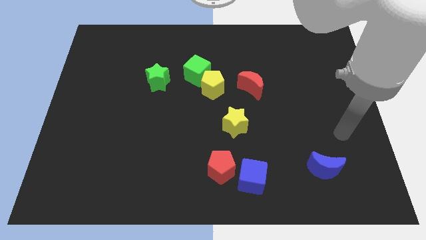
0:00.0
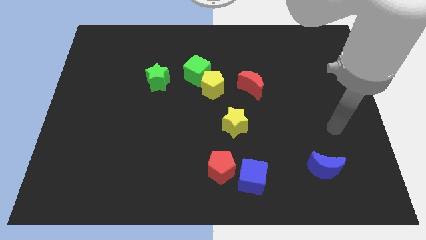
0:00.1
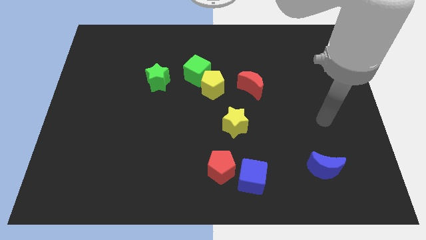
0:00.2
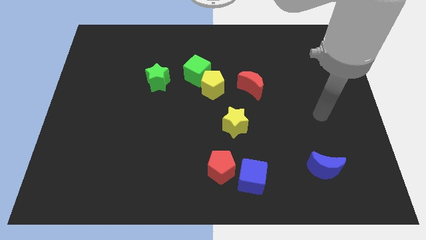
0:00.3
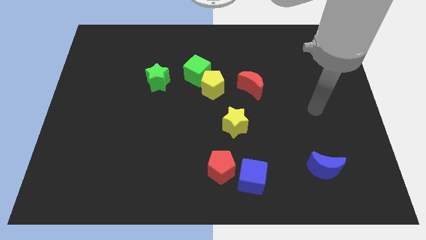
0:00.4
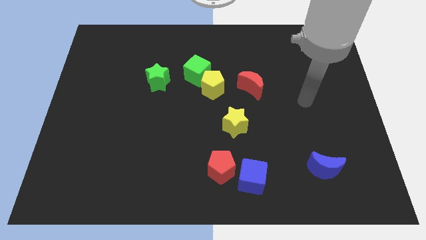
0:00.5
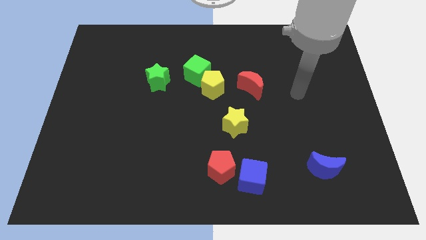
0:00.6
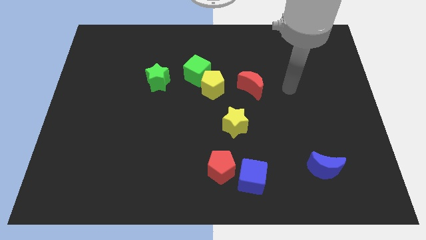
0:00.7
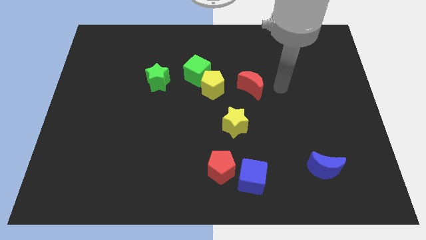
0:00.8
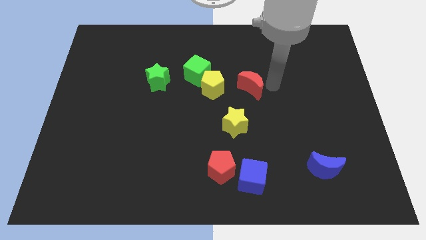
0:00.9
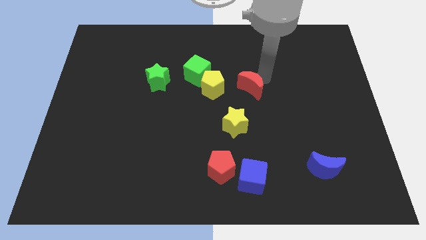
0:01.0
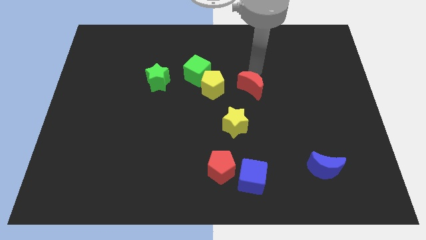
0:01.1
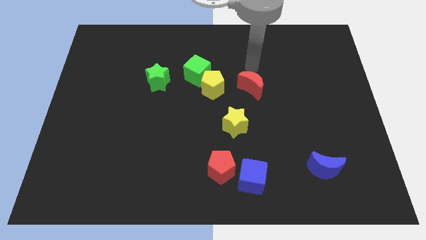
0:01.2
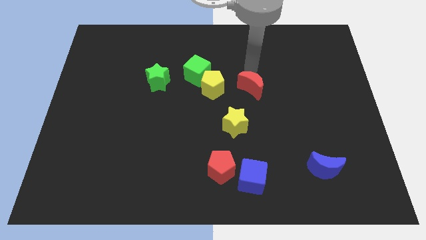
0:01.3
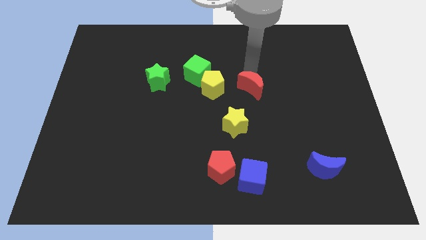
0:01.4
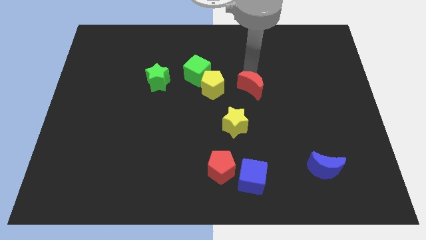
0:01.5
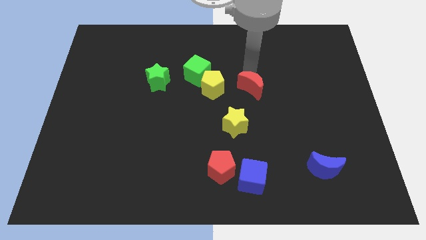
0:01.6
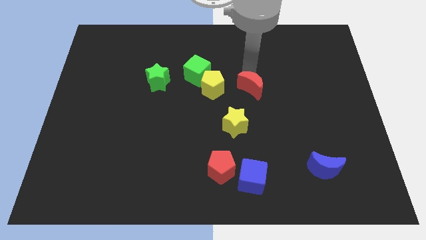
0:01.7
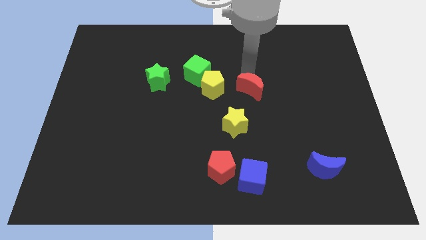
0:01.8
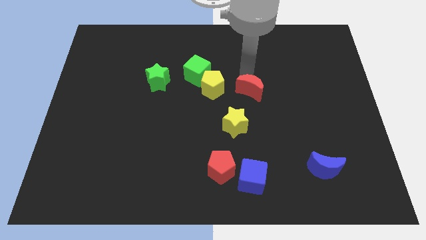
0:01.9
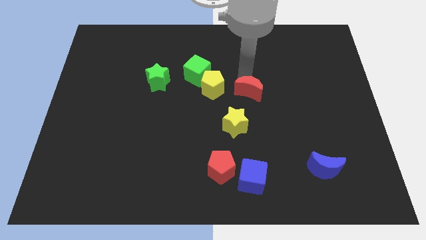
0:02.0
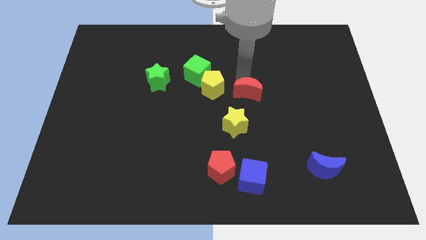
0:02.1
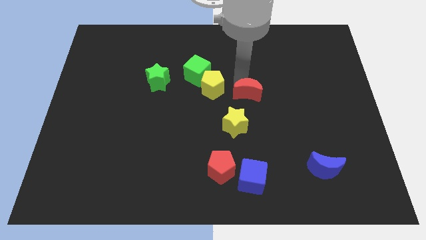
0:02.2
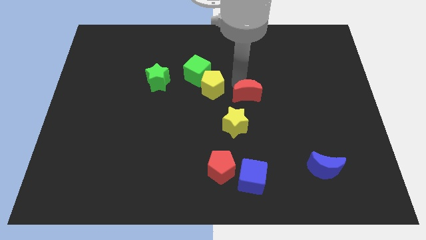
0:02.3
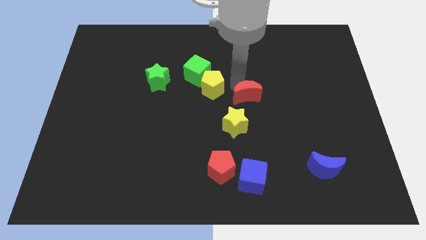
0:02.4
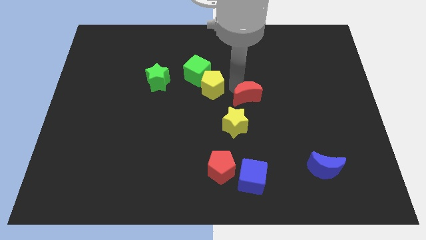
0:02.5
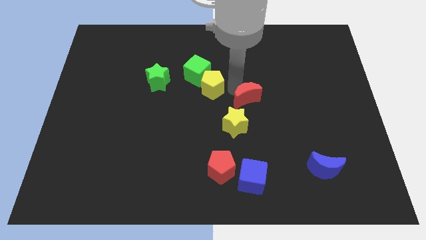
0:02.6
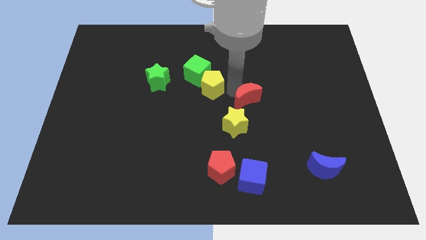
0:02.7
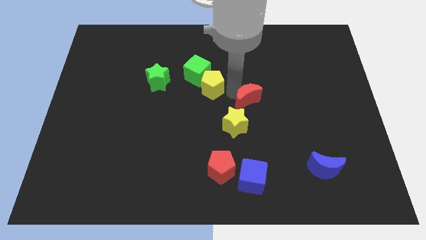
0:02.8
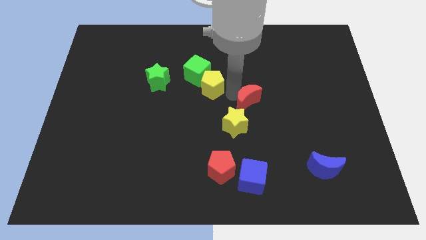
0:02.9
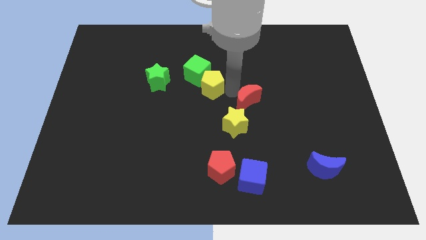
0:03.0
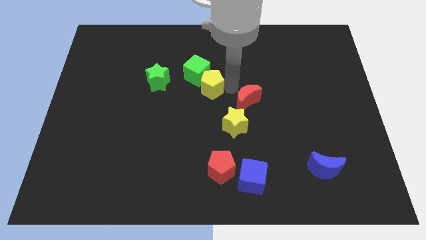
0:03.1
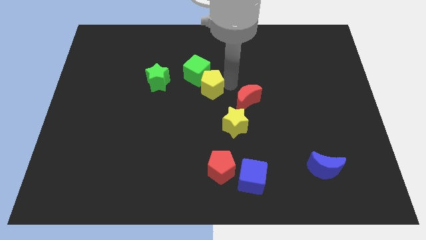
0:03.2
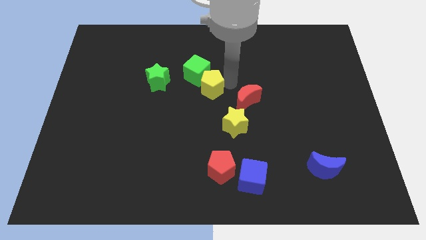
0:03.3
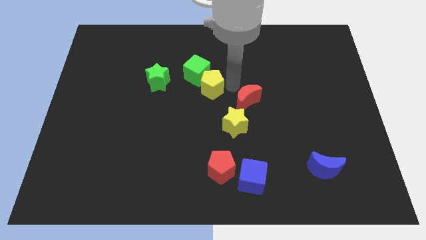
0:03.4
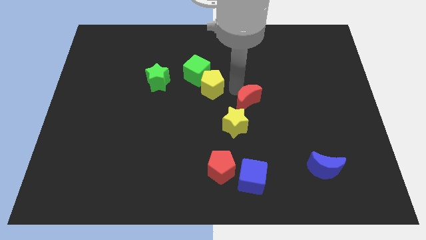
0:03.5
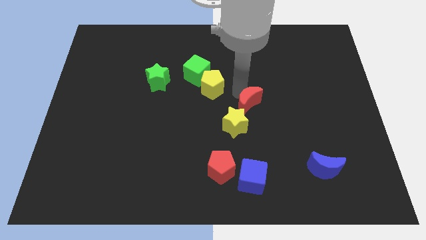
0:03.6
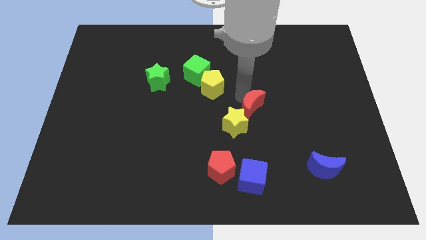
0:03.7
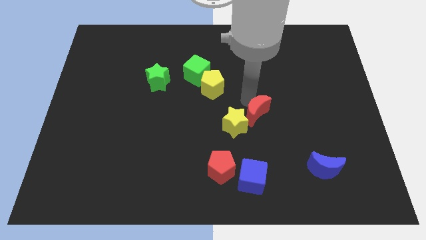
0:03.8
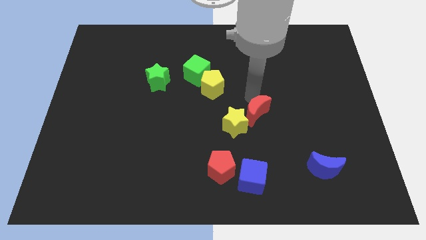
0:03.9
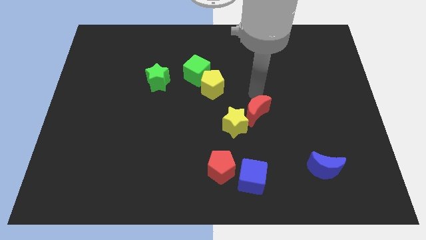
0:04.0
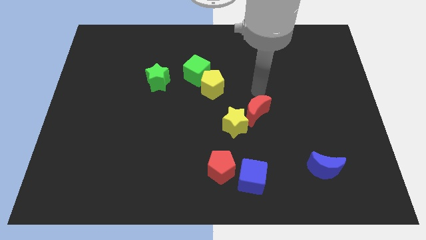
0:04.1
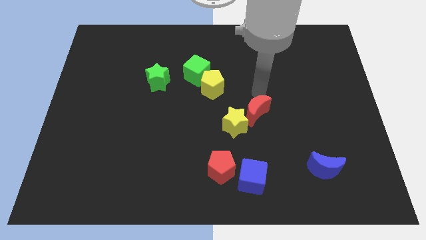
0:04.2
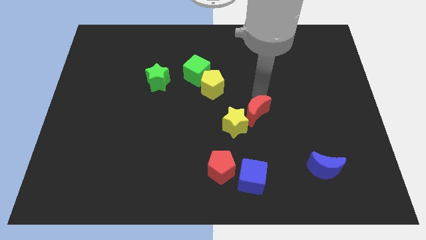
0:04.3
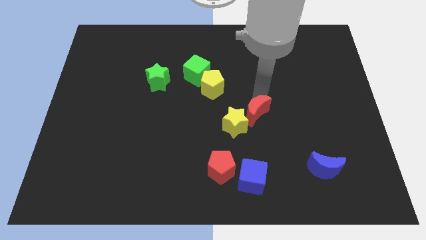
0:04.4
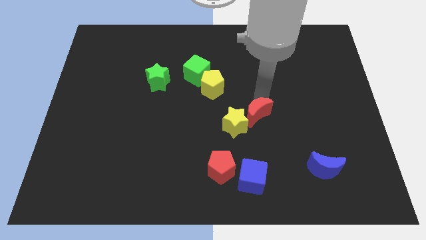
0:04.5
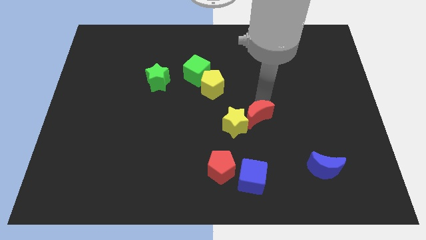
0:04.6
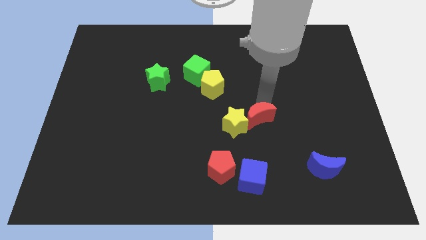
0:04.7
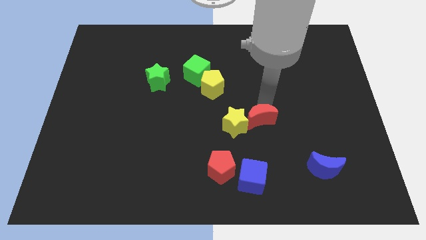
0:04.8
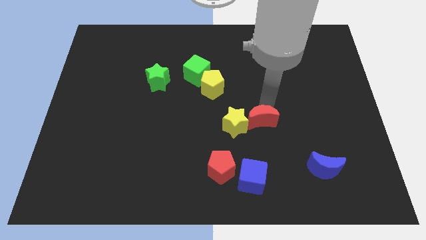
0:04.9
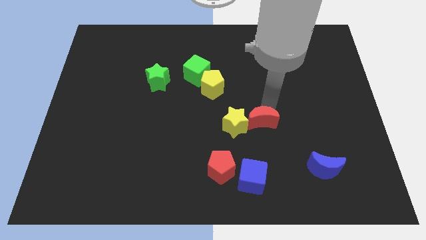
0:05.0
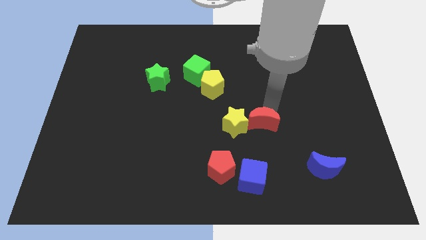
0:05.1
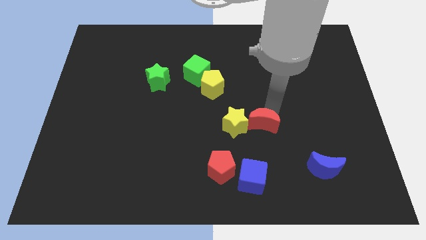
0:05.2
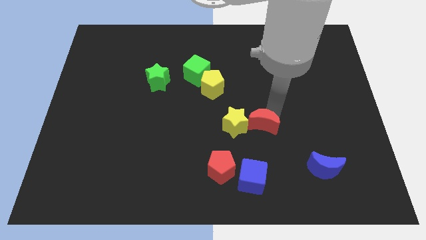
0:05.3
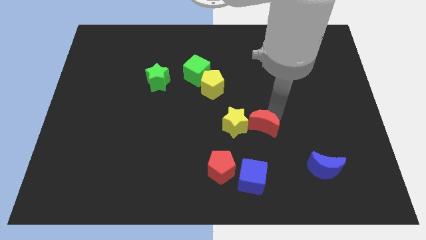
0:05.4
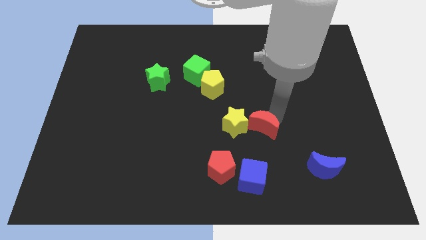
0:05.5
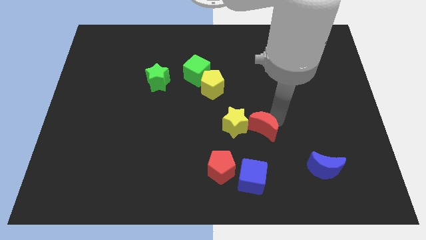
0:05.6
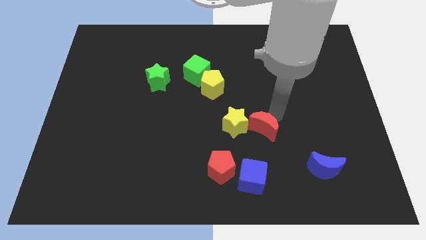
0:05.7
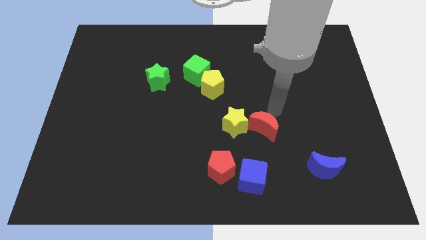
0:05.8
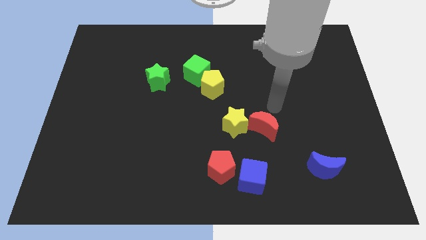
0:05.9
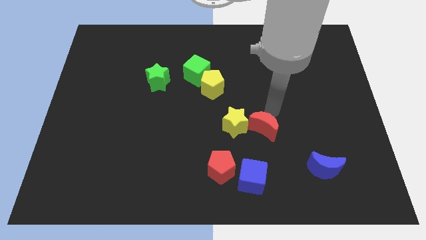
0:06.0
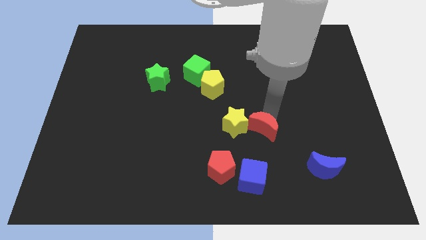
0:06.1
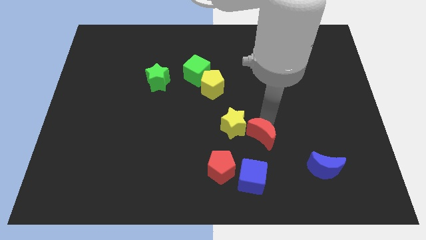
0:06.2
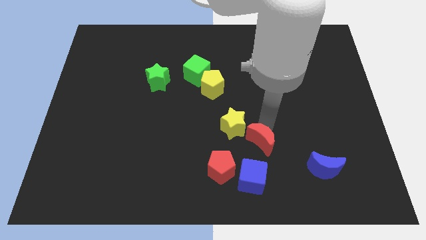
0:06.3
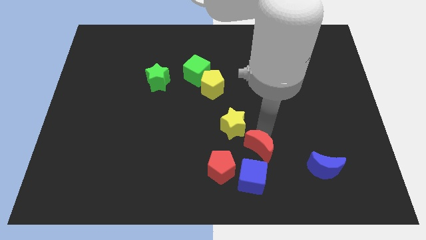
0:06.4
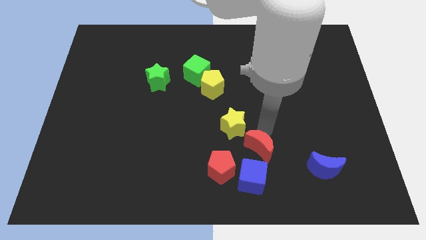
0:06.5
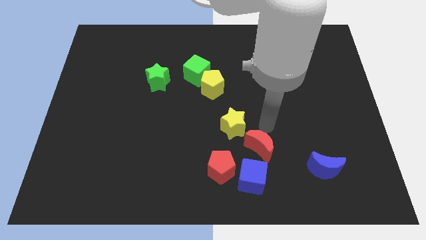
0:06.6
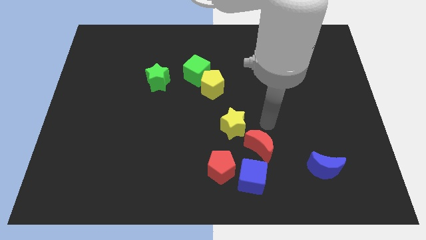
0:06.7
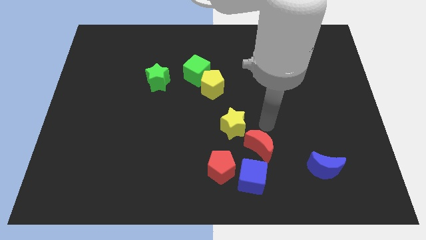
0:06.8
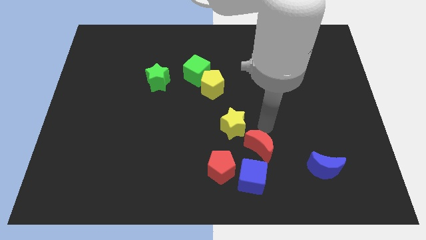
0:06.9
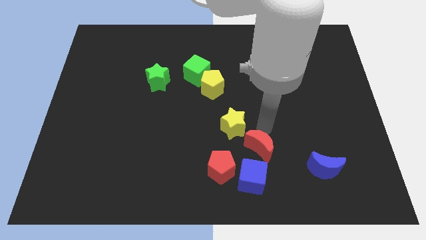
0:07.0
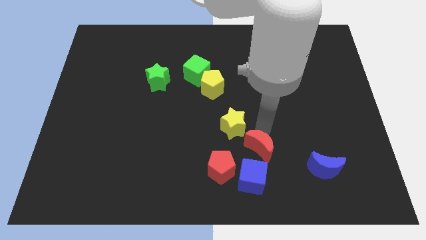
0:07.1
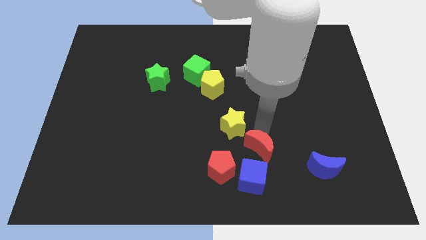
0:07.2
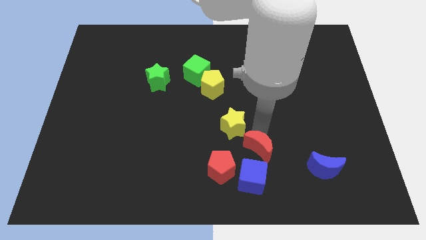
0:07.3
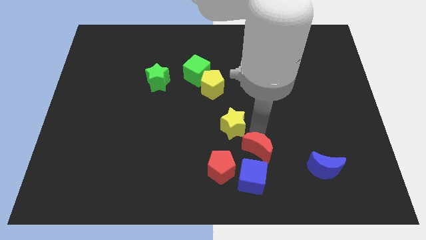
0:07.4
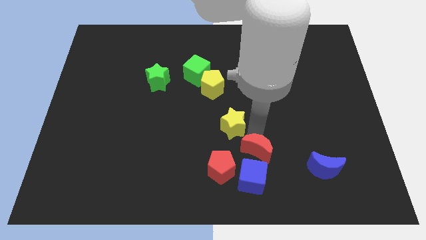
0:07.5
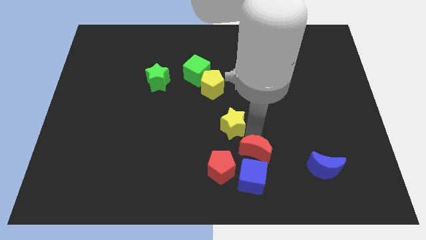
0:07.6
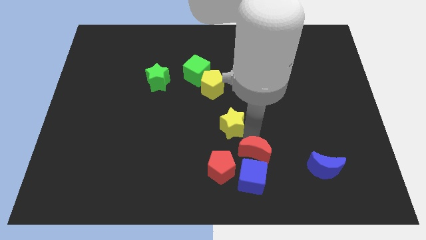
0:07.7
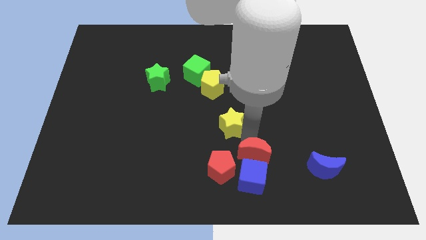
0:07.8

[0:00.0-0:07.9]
move the red moon close to the blue cube
